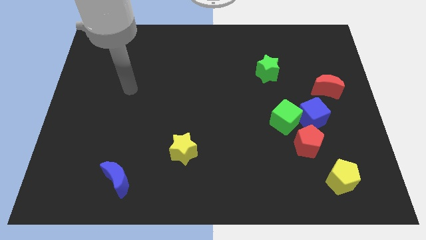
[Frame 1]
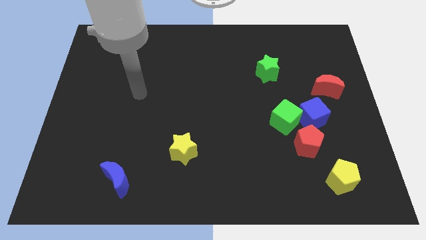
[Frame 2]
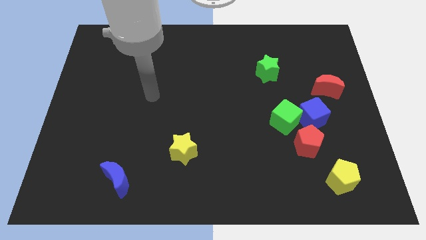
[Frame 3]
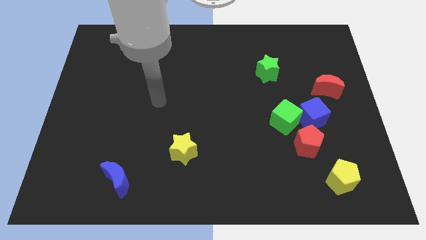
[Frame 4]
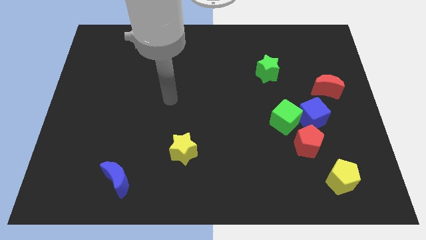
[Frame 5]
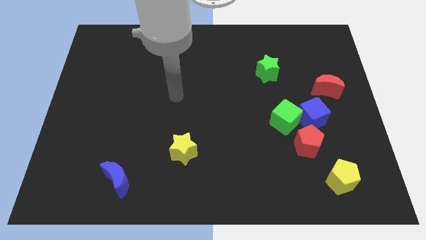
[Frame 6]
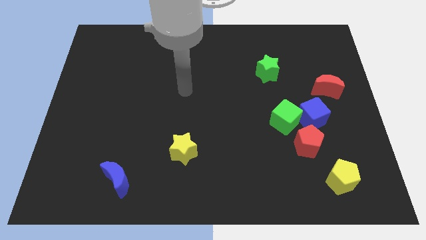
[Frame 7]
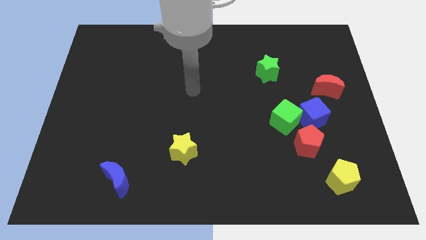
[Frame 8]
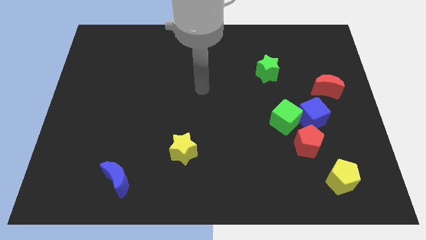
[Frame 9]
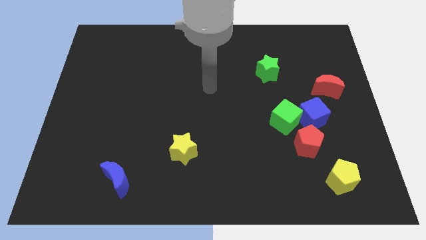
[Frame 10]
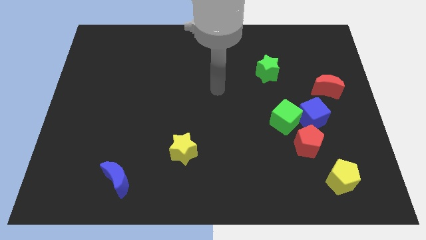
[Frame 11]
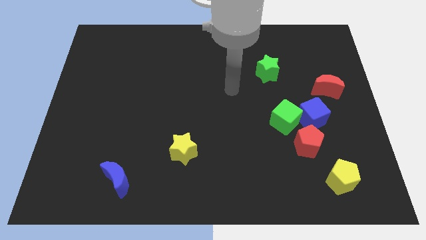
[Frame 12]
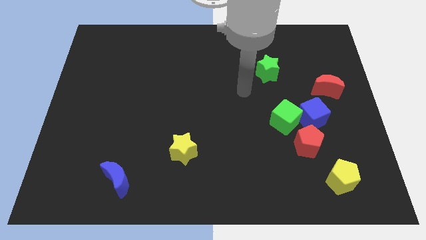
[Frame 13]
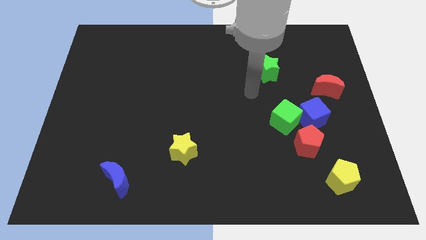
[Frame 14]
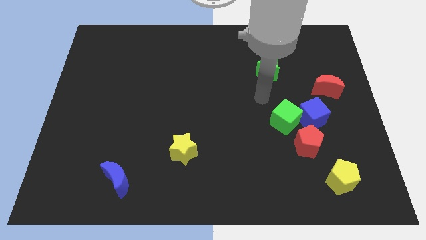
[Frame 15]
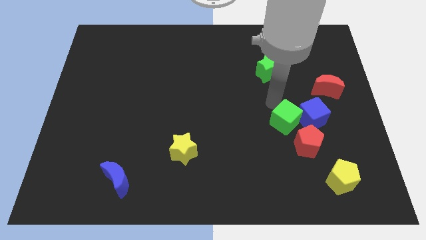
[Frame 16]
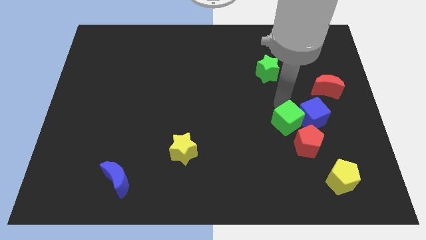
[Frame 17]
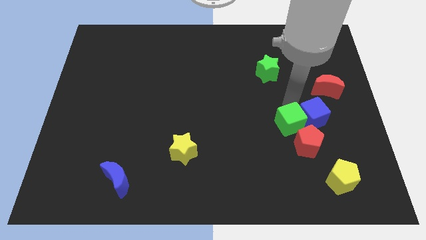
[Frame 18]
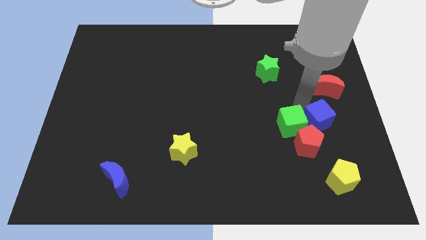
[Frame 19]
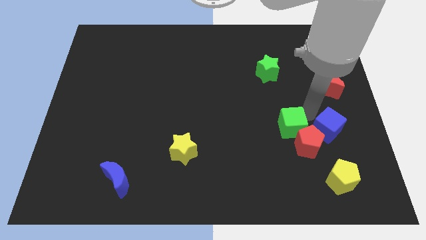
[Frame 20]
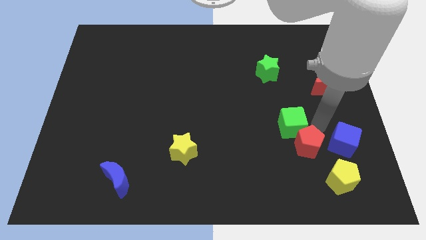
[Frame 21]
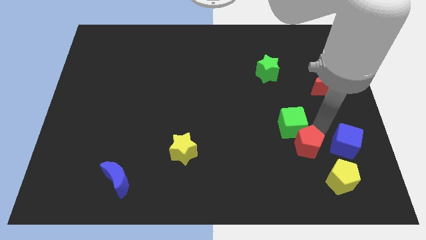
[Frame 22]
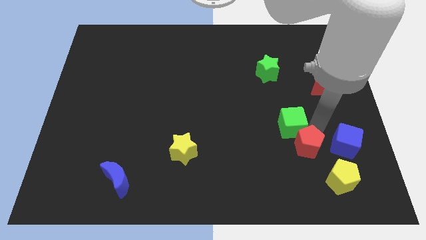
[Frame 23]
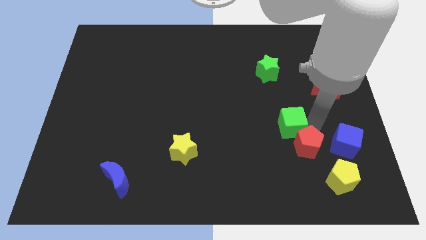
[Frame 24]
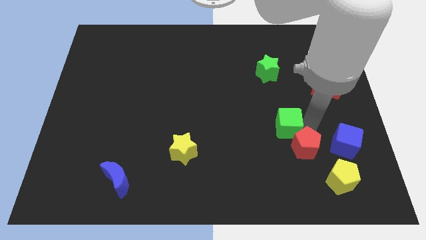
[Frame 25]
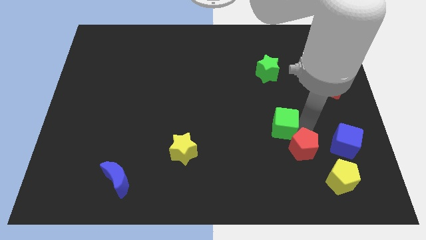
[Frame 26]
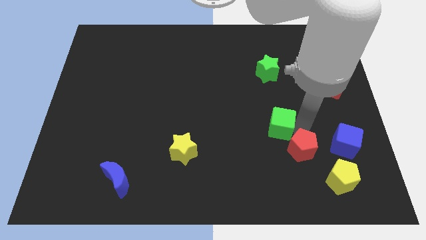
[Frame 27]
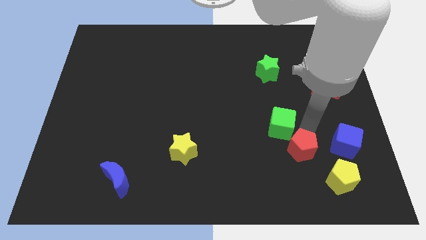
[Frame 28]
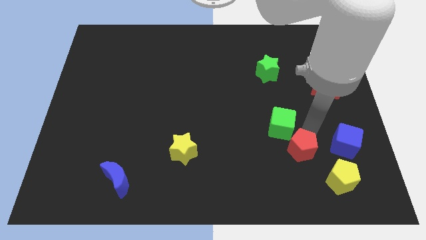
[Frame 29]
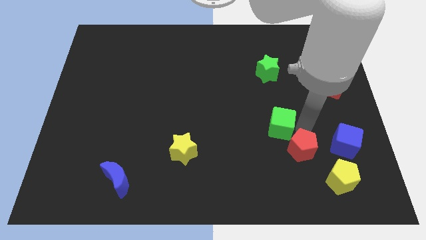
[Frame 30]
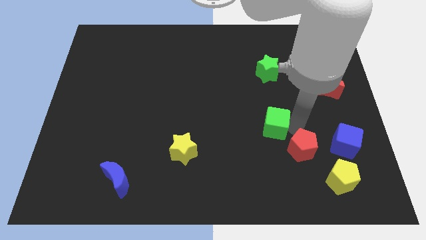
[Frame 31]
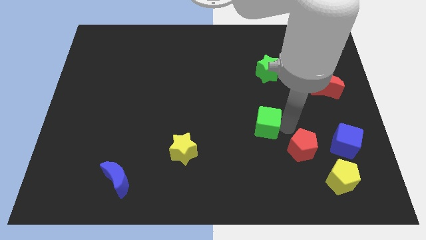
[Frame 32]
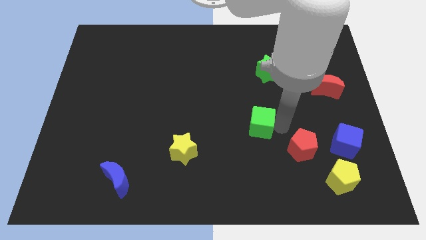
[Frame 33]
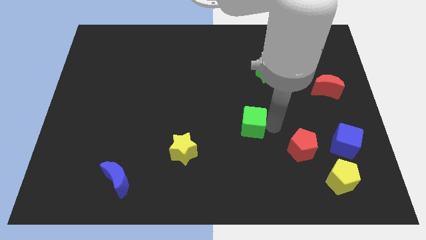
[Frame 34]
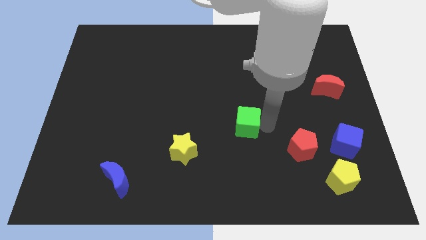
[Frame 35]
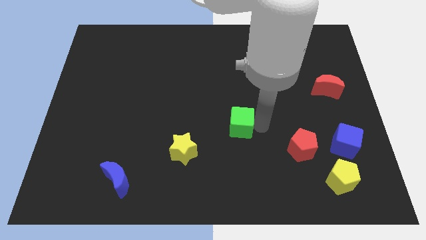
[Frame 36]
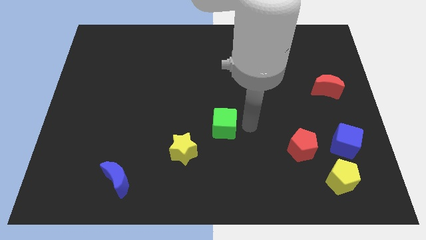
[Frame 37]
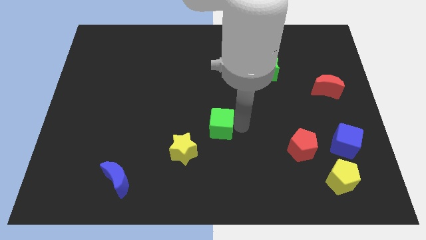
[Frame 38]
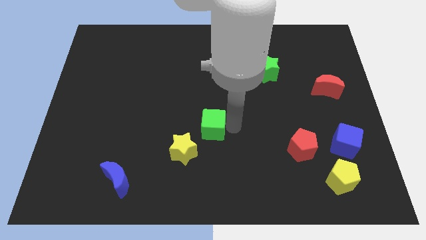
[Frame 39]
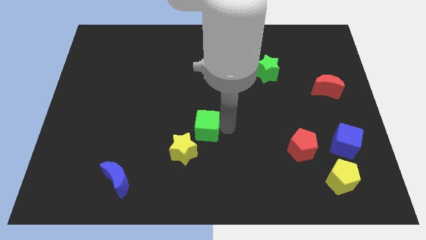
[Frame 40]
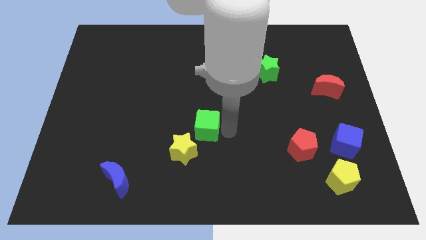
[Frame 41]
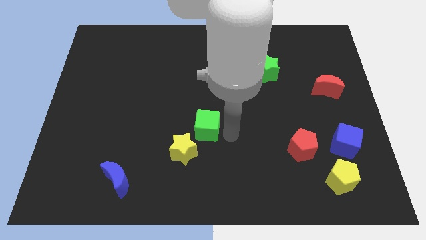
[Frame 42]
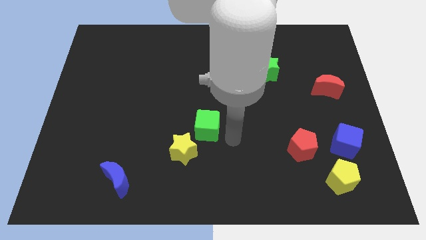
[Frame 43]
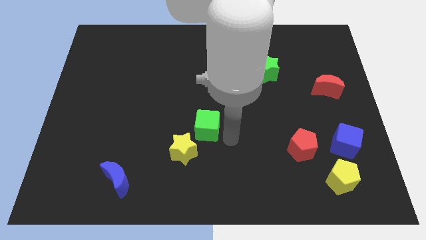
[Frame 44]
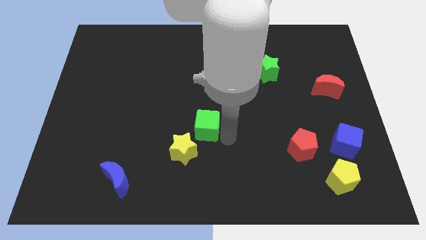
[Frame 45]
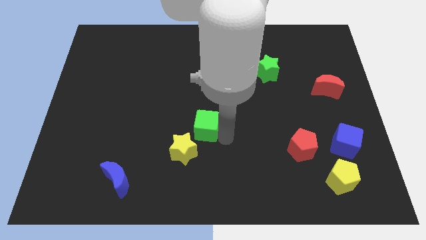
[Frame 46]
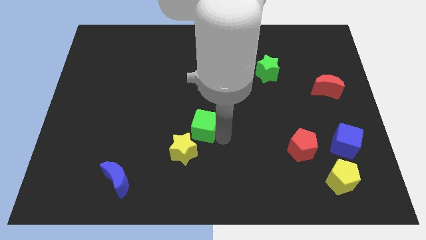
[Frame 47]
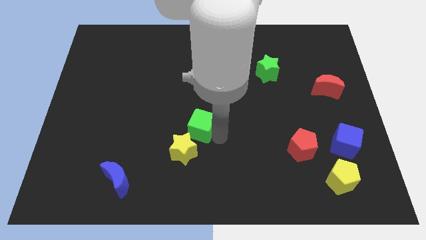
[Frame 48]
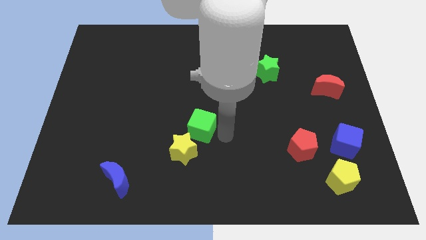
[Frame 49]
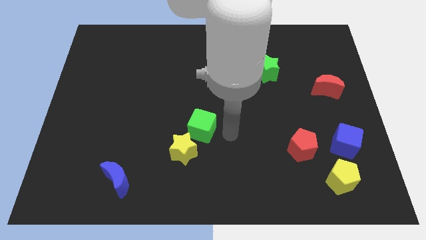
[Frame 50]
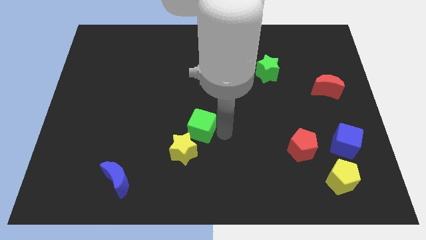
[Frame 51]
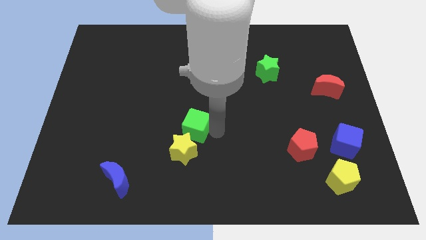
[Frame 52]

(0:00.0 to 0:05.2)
move the green cube left

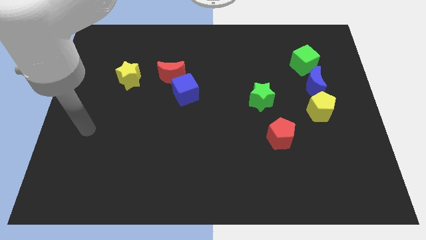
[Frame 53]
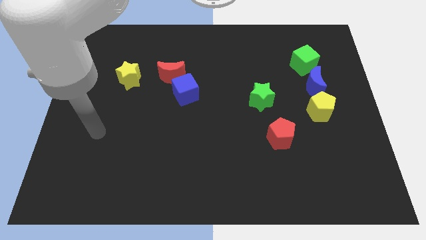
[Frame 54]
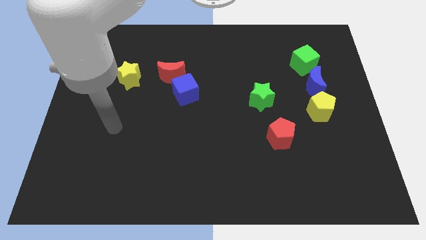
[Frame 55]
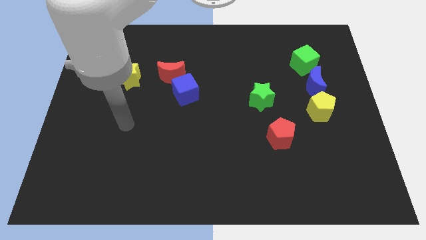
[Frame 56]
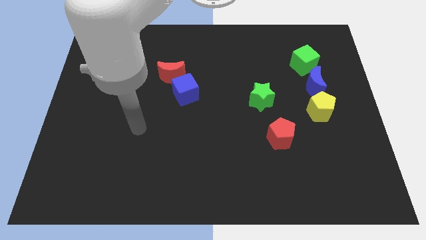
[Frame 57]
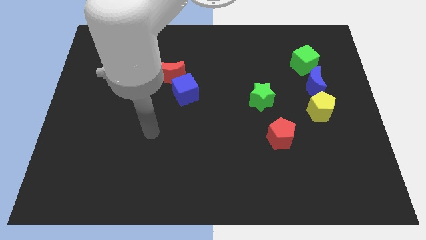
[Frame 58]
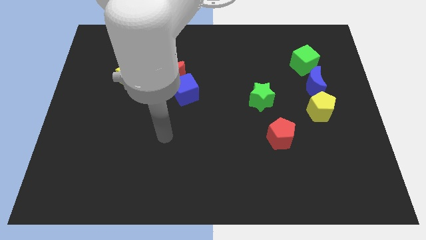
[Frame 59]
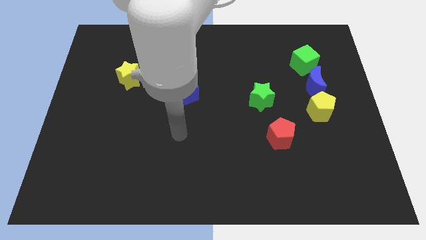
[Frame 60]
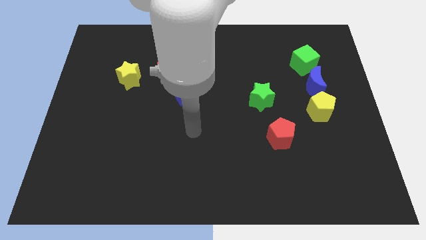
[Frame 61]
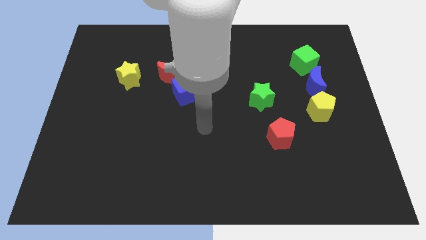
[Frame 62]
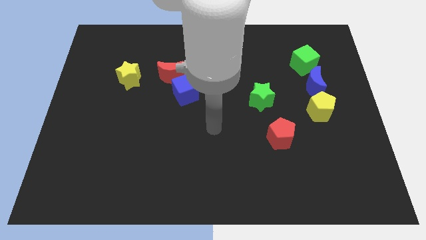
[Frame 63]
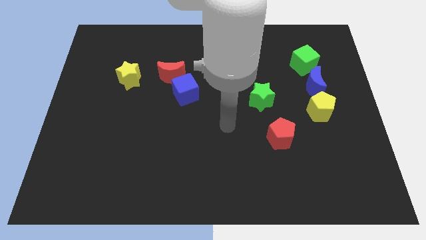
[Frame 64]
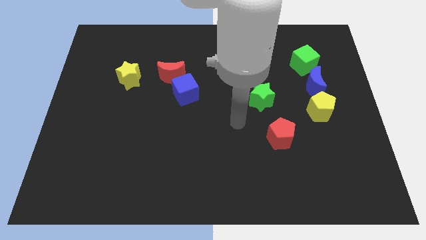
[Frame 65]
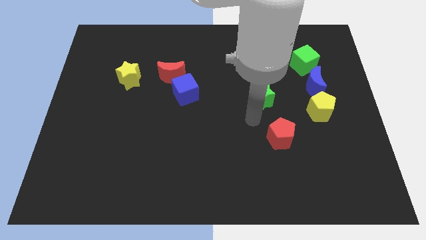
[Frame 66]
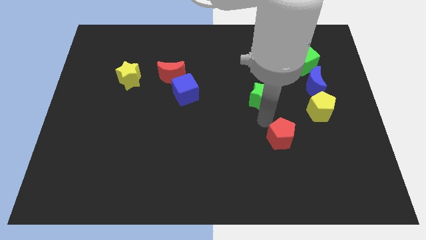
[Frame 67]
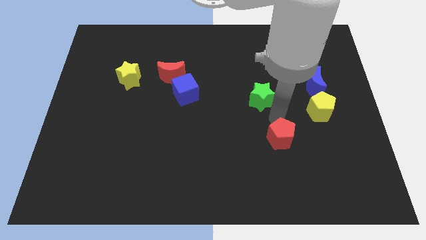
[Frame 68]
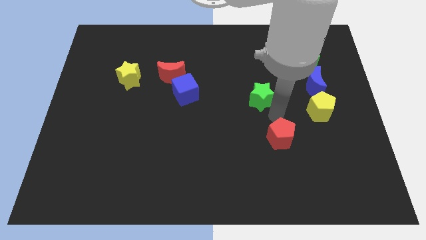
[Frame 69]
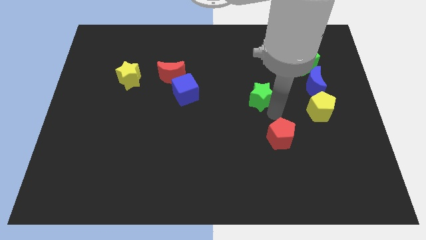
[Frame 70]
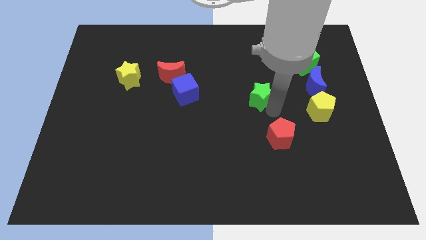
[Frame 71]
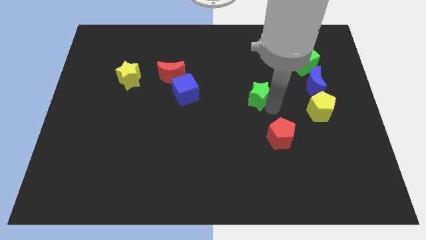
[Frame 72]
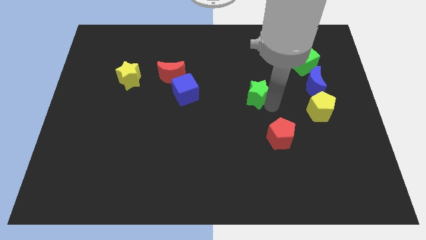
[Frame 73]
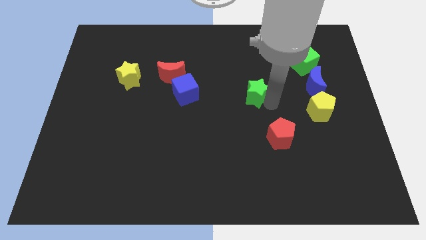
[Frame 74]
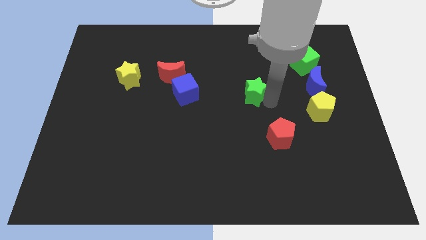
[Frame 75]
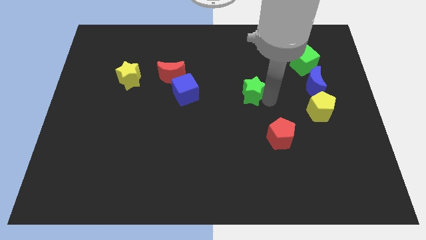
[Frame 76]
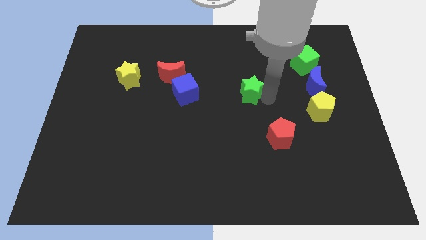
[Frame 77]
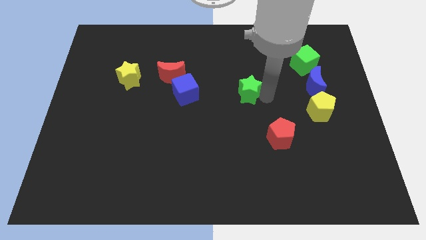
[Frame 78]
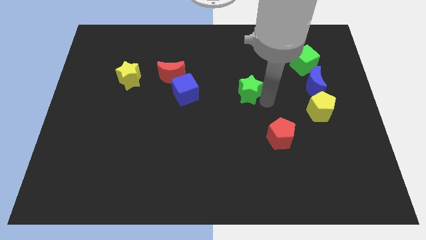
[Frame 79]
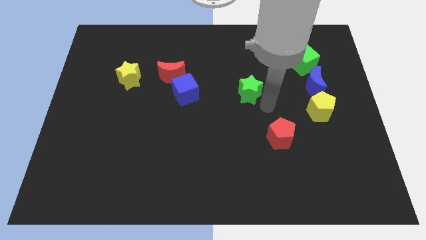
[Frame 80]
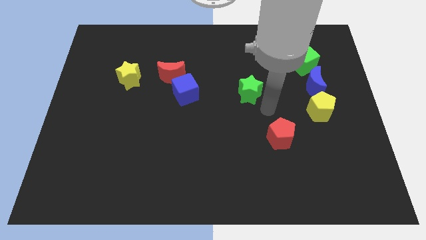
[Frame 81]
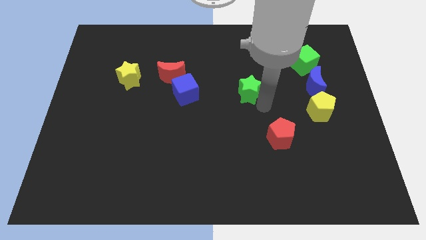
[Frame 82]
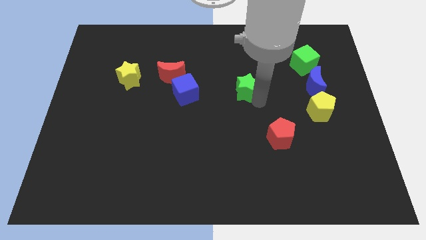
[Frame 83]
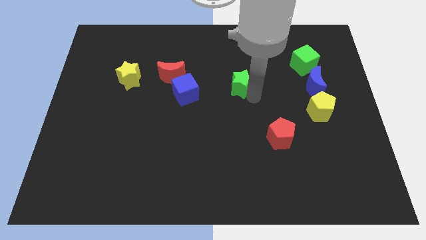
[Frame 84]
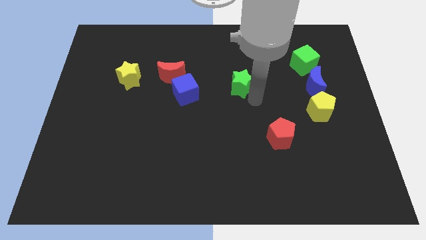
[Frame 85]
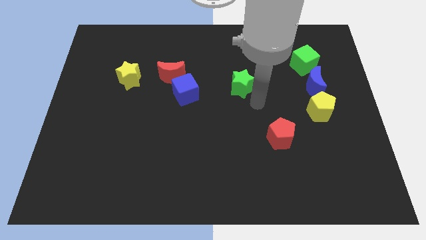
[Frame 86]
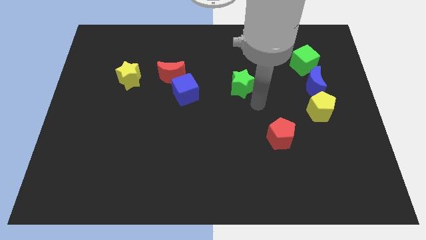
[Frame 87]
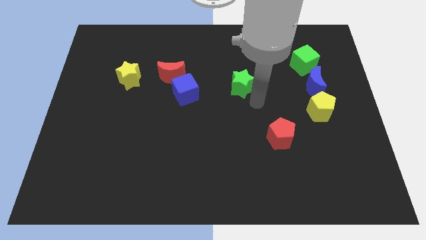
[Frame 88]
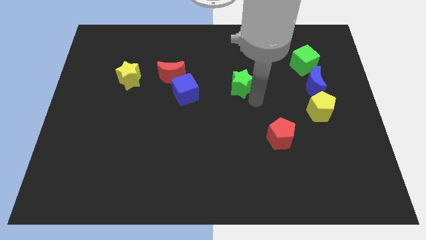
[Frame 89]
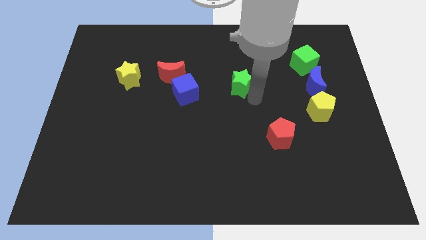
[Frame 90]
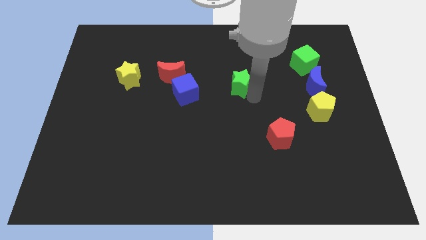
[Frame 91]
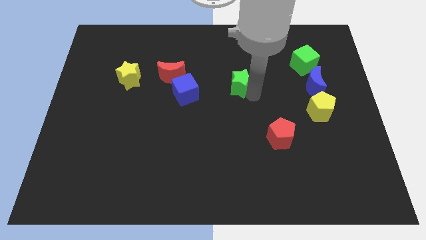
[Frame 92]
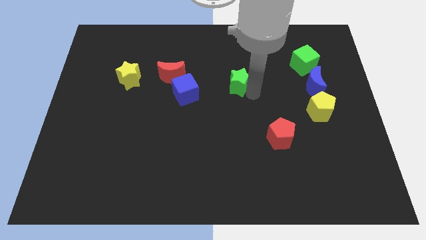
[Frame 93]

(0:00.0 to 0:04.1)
slightly move the green star up and left
